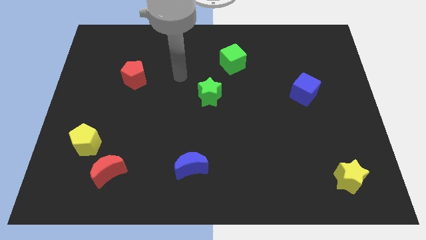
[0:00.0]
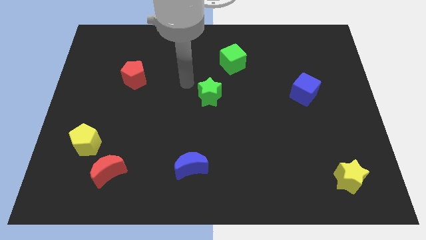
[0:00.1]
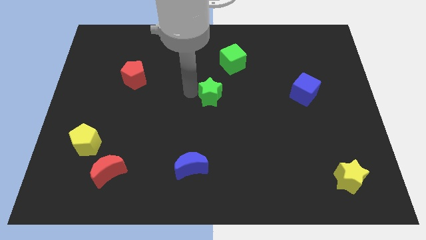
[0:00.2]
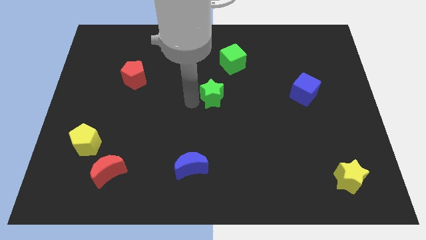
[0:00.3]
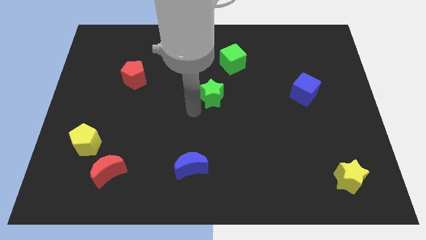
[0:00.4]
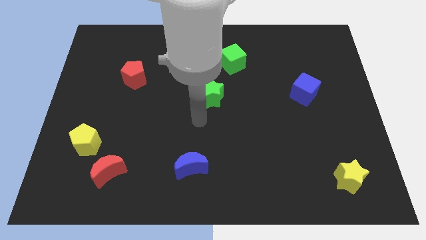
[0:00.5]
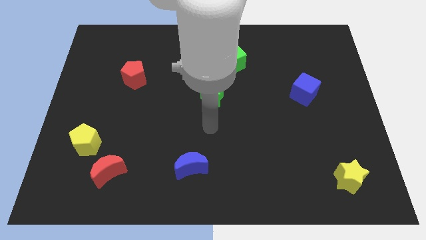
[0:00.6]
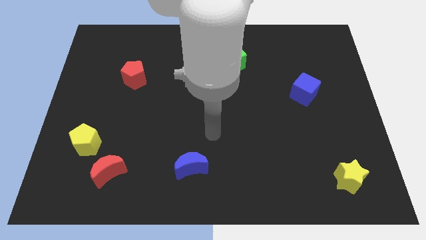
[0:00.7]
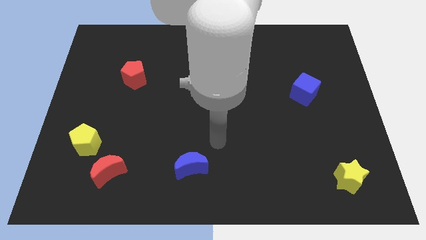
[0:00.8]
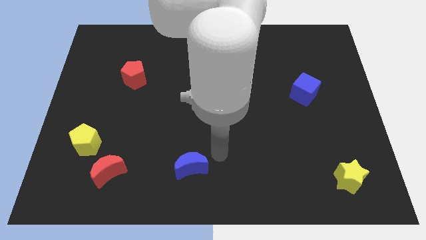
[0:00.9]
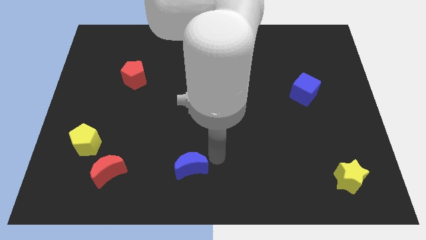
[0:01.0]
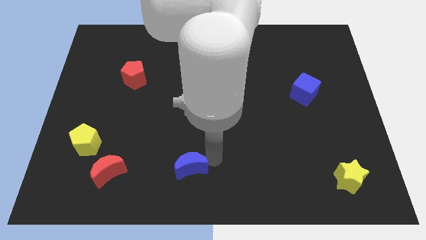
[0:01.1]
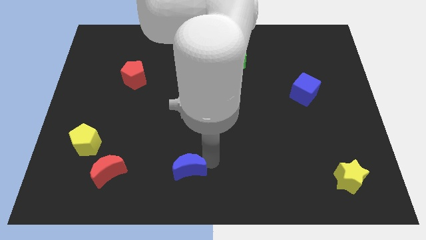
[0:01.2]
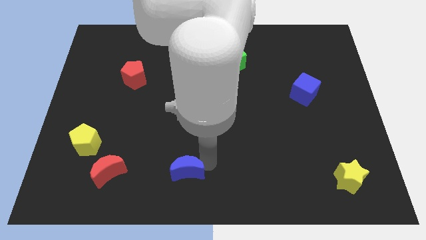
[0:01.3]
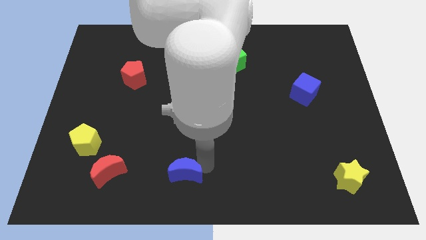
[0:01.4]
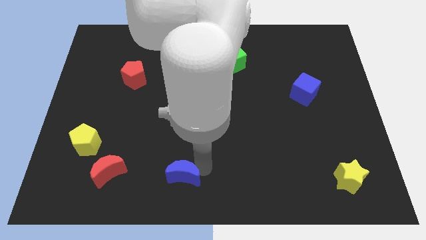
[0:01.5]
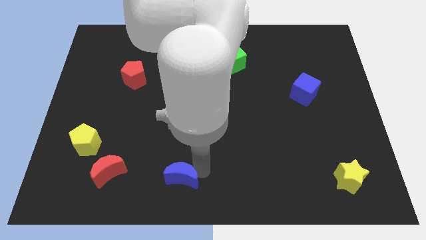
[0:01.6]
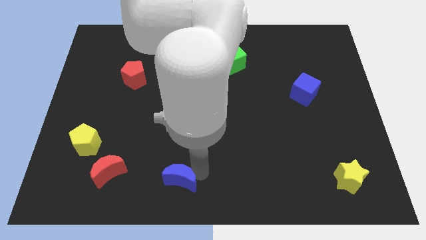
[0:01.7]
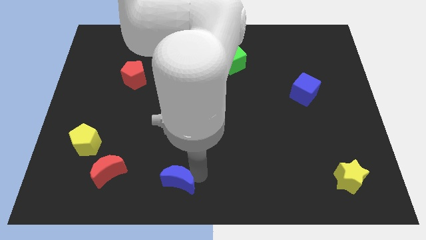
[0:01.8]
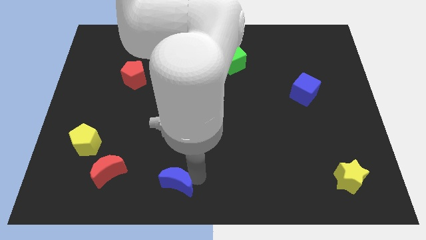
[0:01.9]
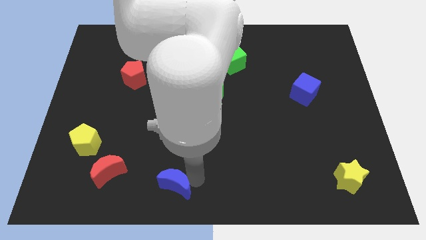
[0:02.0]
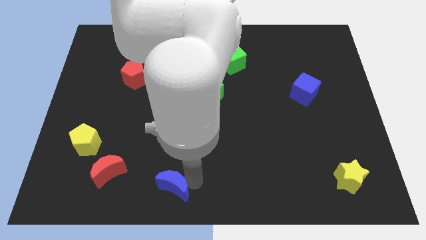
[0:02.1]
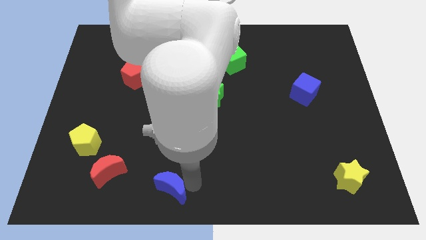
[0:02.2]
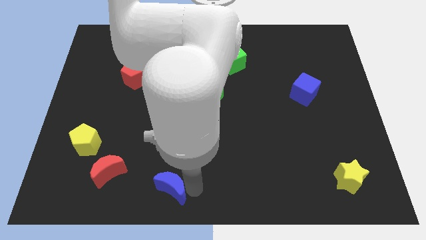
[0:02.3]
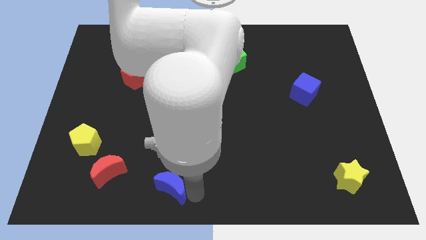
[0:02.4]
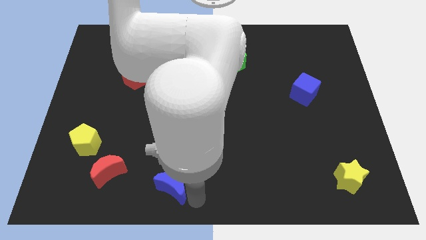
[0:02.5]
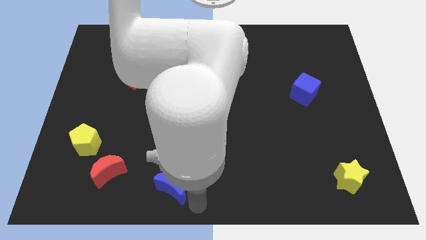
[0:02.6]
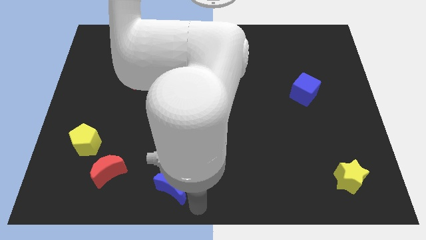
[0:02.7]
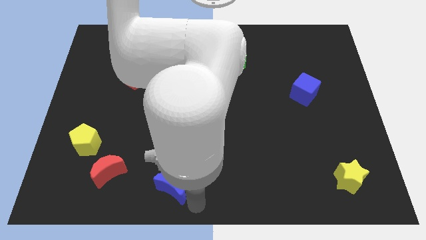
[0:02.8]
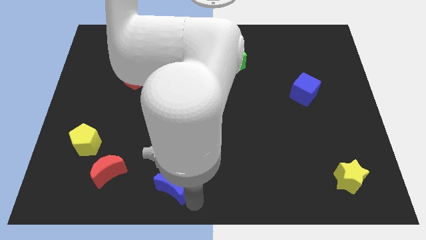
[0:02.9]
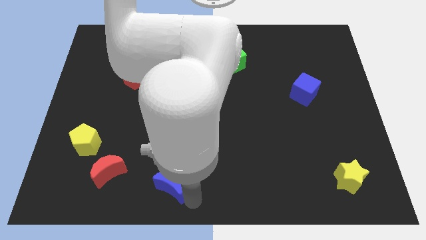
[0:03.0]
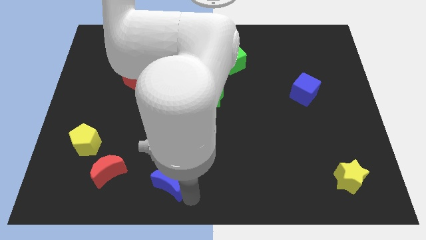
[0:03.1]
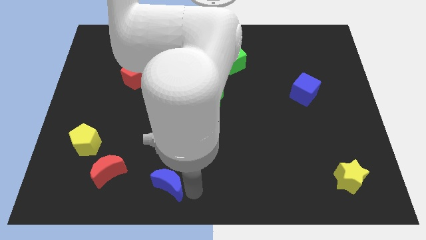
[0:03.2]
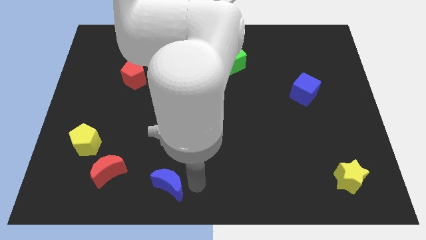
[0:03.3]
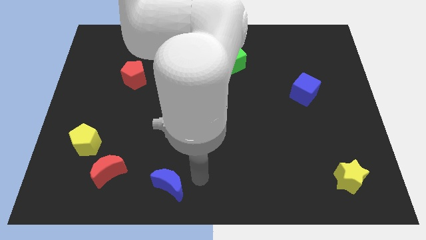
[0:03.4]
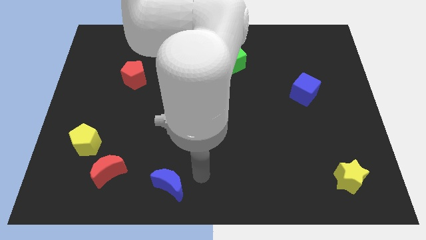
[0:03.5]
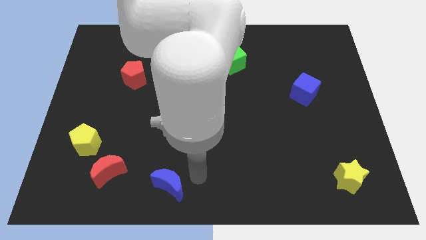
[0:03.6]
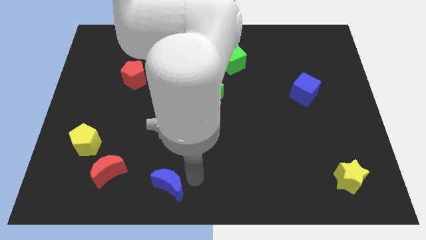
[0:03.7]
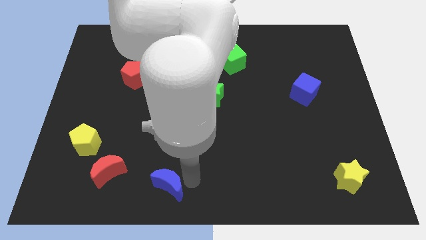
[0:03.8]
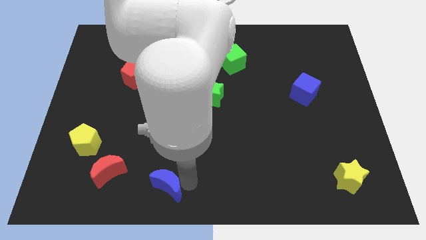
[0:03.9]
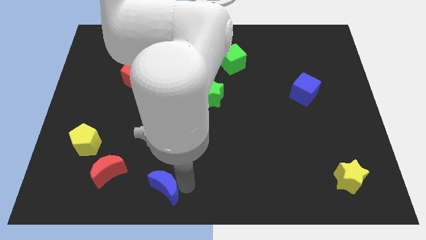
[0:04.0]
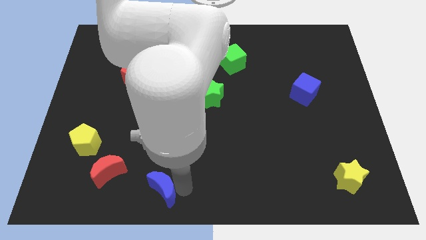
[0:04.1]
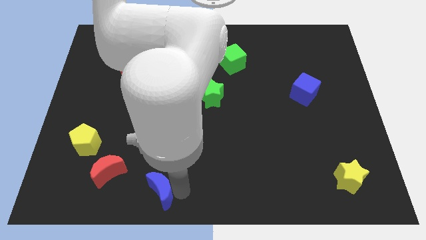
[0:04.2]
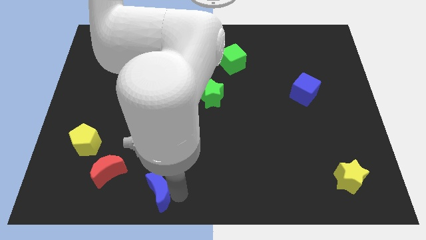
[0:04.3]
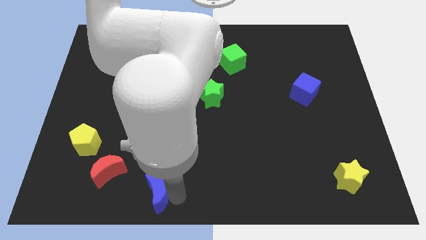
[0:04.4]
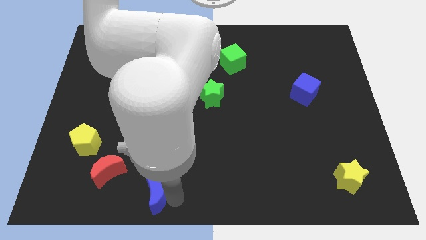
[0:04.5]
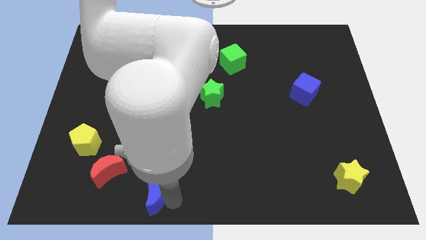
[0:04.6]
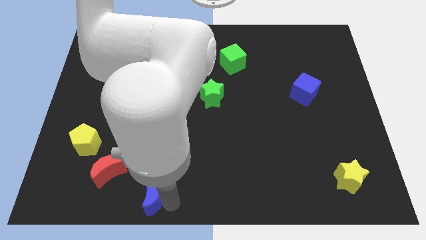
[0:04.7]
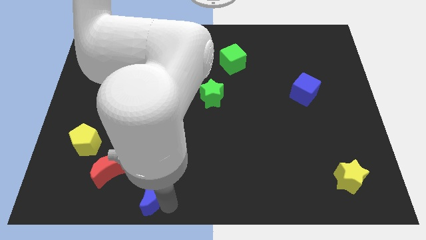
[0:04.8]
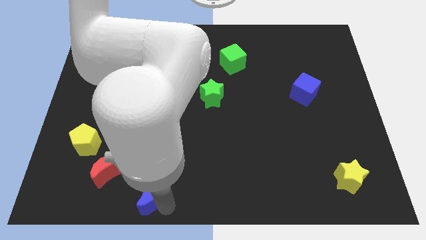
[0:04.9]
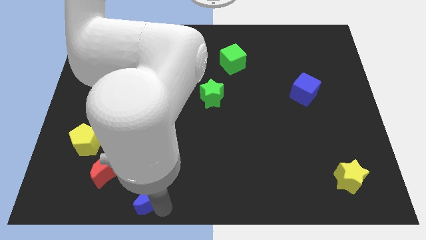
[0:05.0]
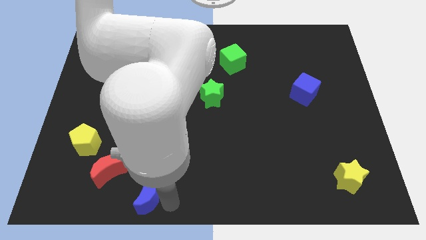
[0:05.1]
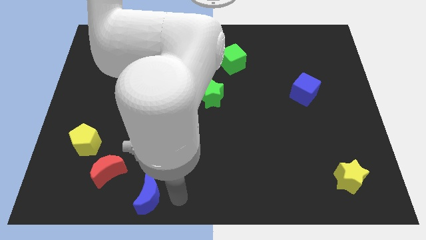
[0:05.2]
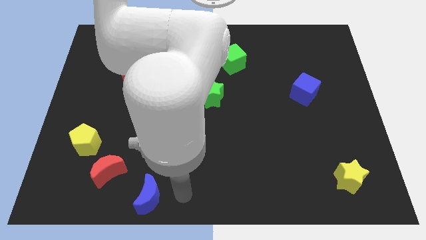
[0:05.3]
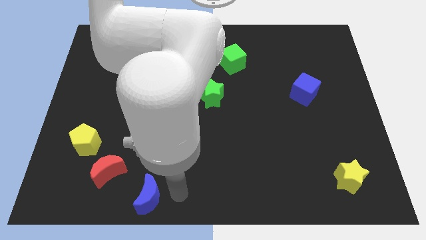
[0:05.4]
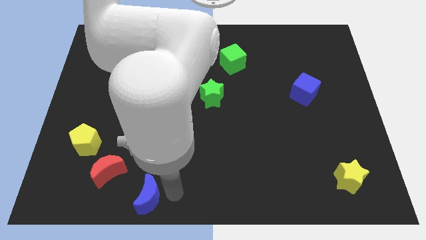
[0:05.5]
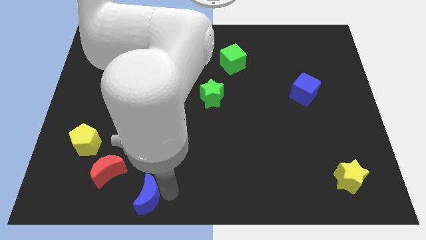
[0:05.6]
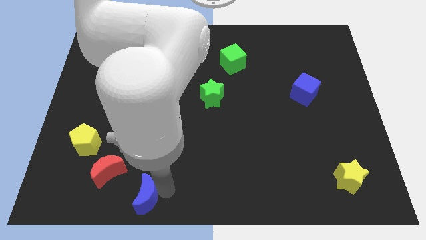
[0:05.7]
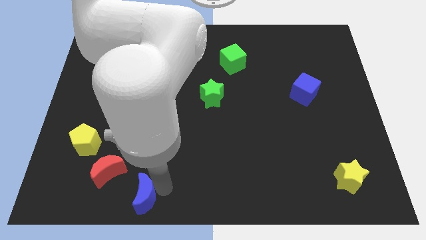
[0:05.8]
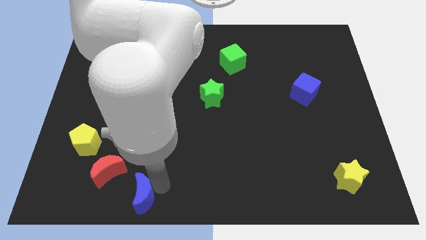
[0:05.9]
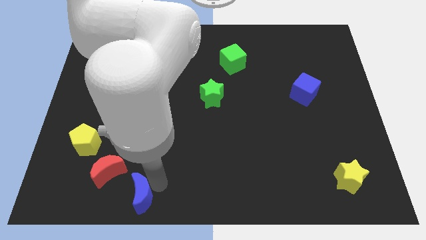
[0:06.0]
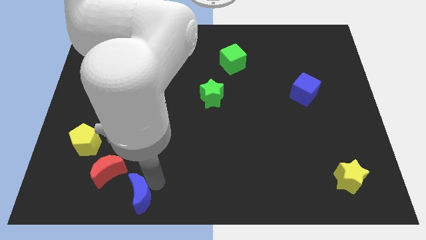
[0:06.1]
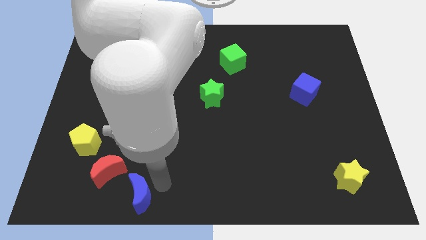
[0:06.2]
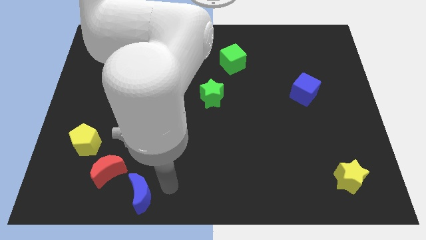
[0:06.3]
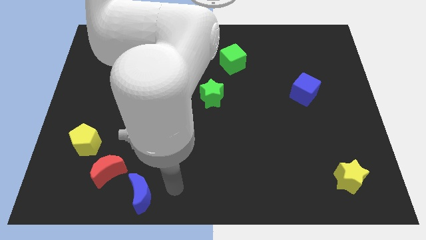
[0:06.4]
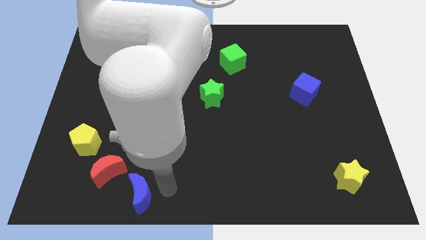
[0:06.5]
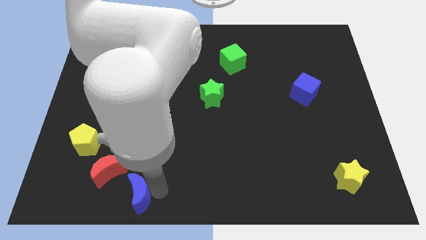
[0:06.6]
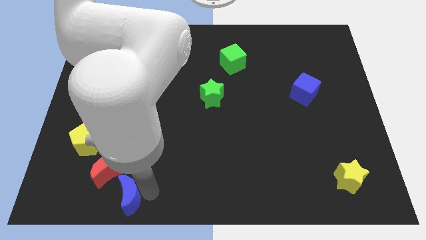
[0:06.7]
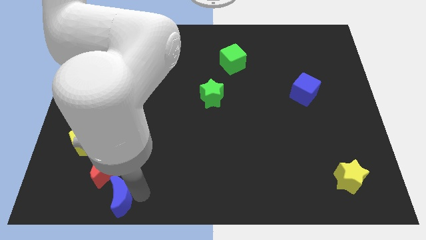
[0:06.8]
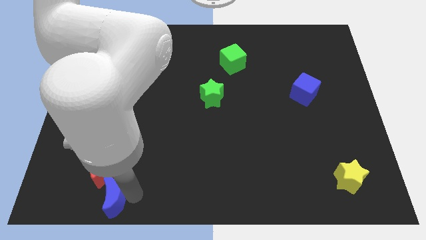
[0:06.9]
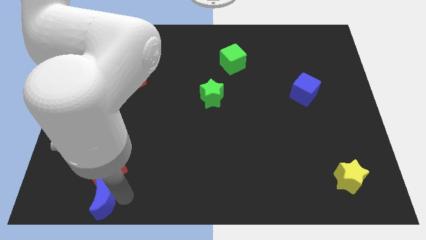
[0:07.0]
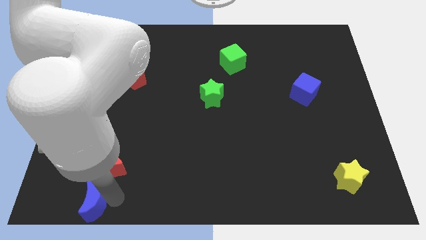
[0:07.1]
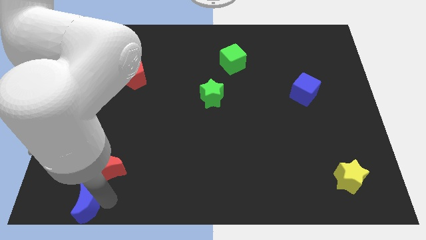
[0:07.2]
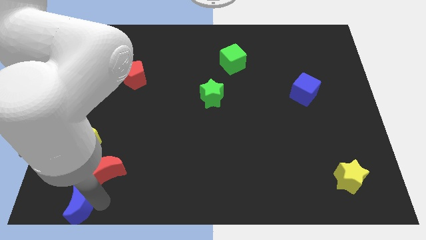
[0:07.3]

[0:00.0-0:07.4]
slide the blue moon to the bottom left corner
